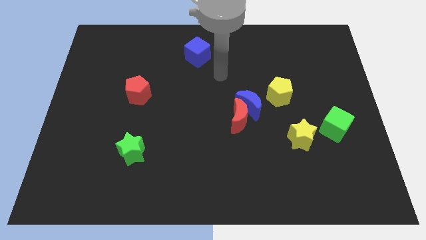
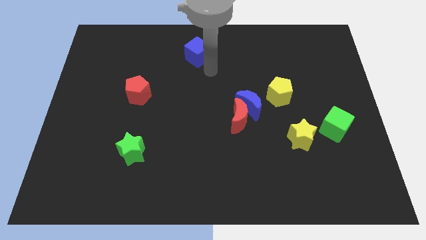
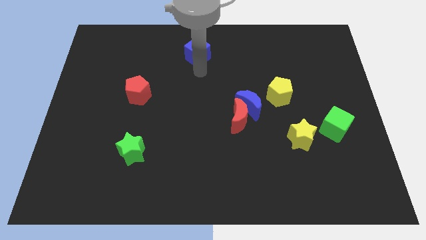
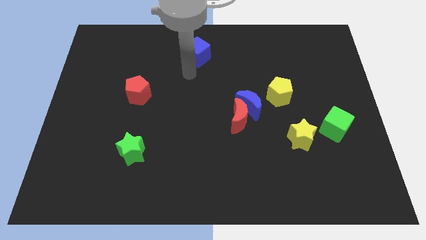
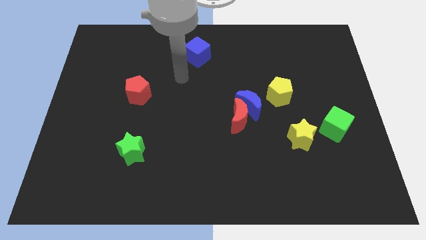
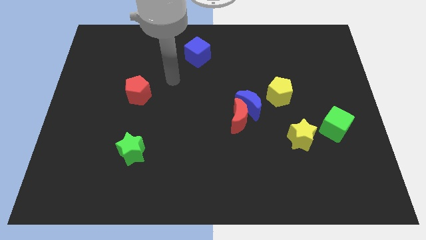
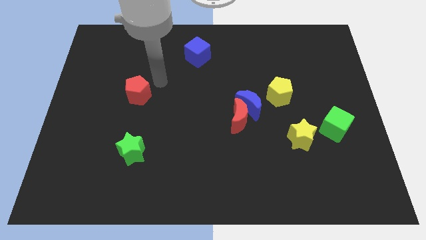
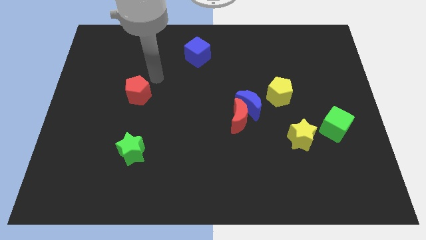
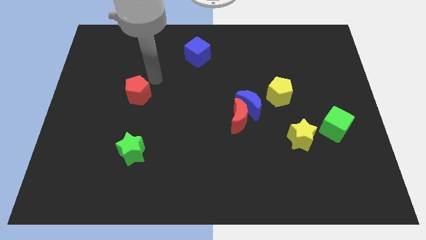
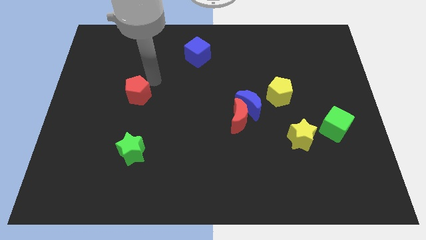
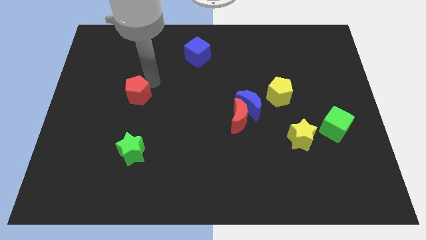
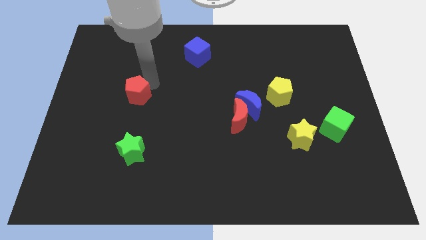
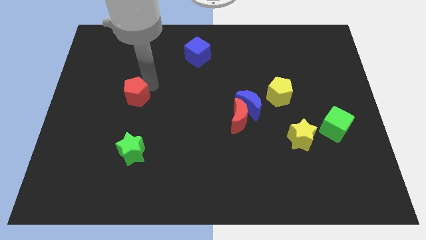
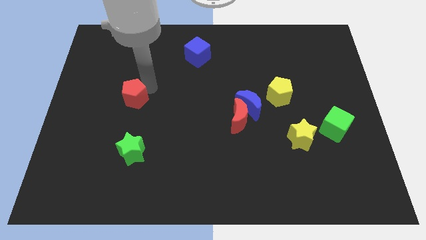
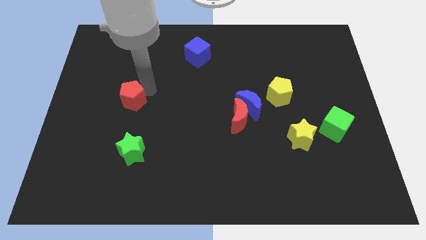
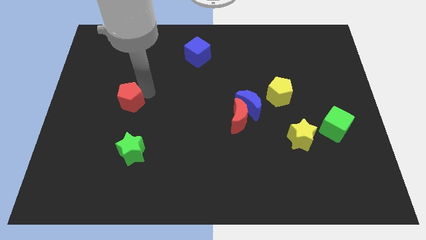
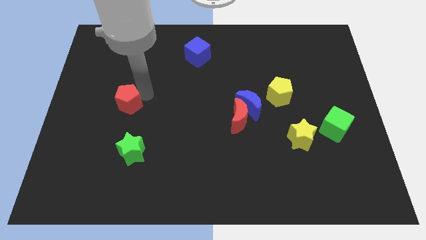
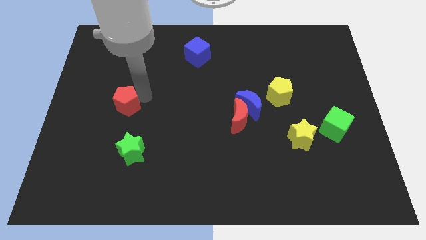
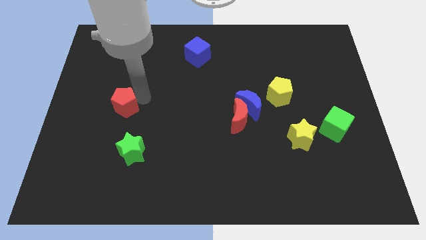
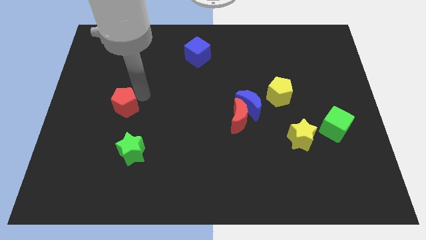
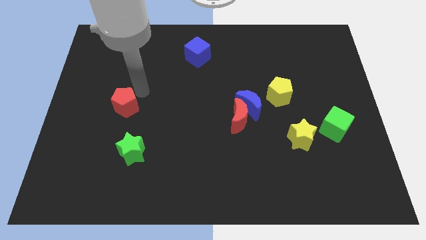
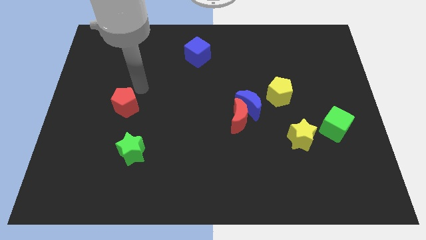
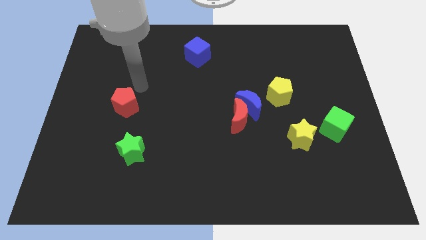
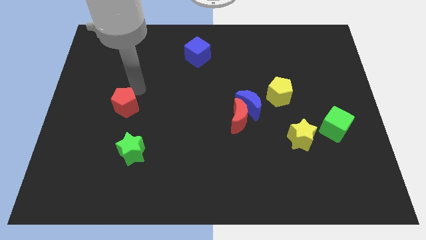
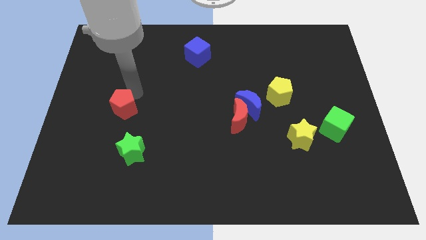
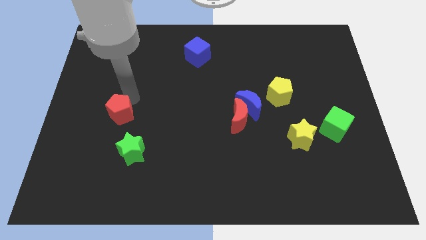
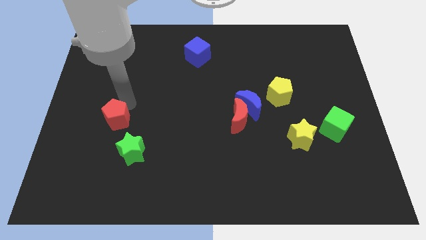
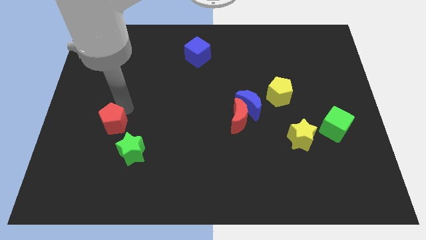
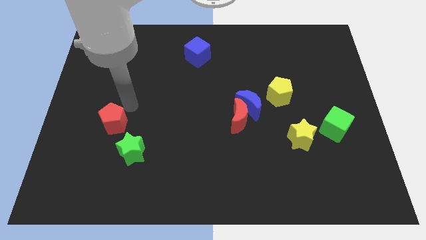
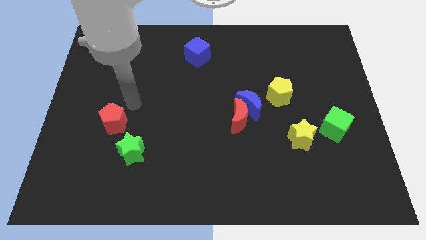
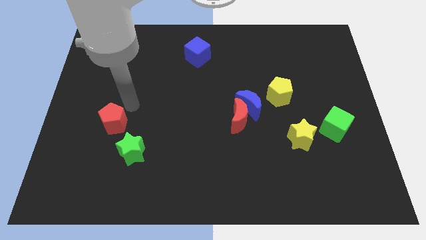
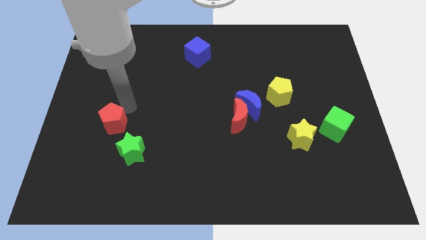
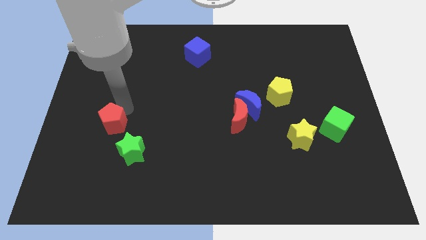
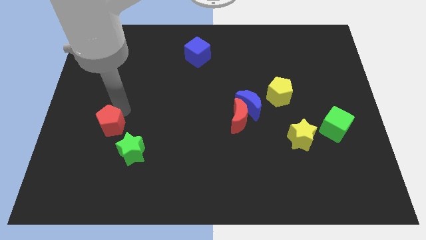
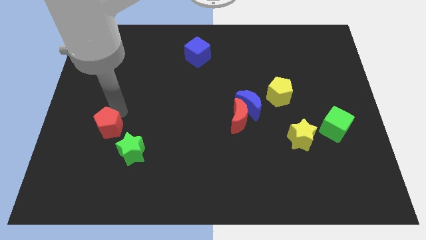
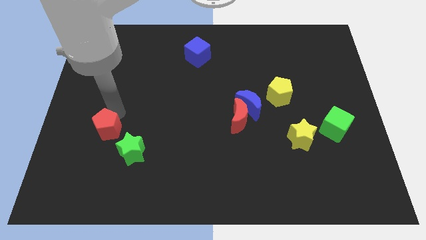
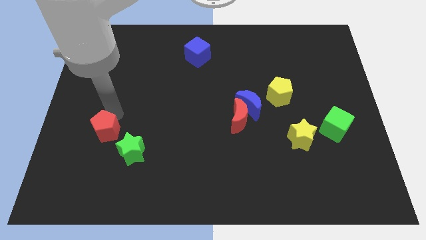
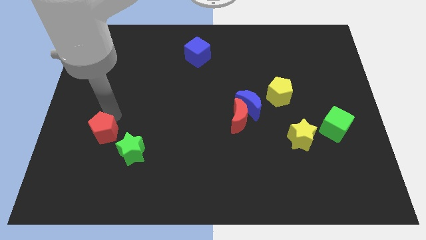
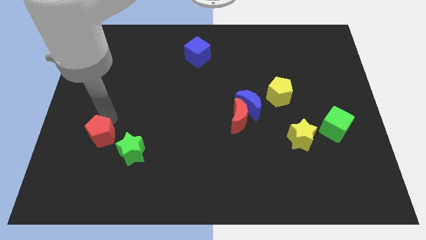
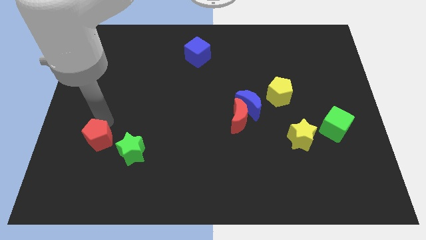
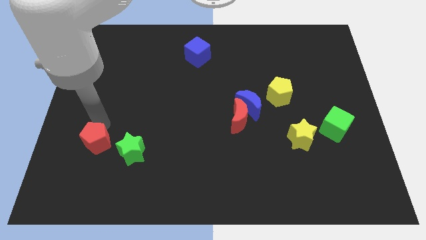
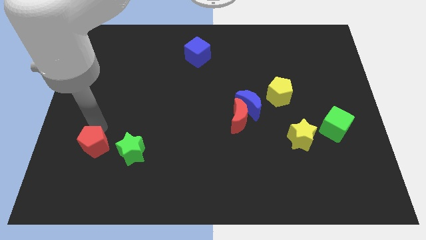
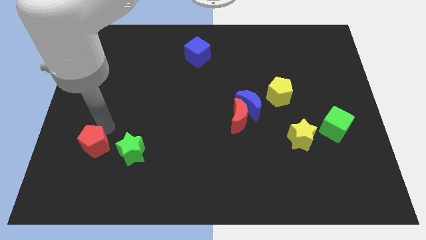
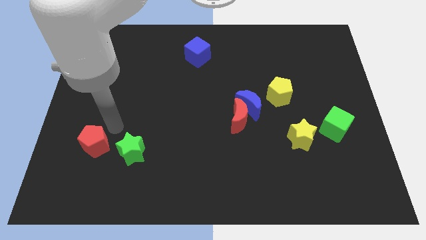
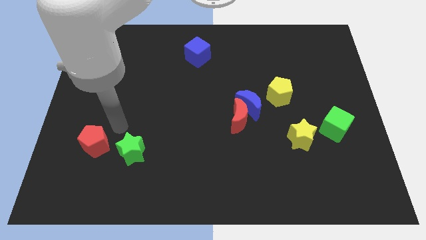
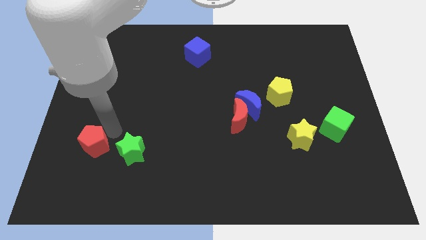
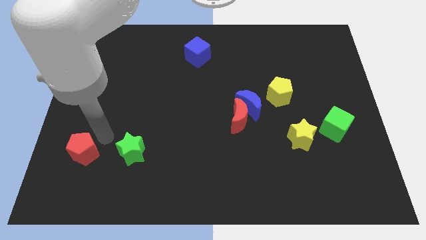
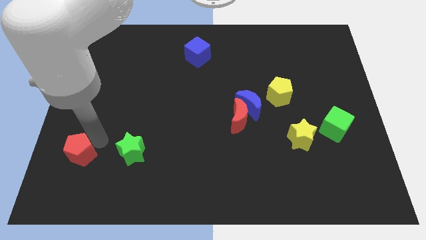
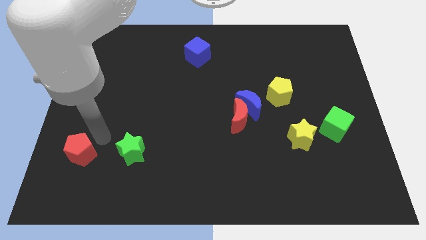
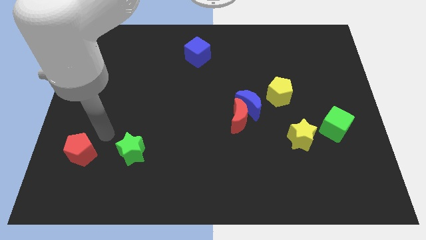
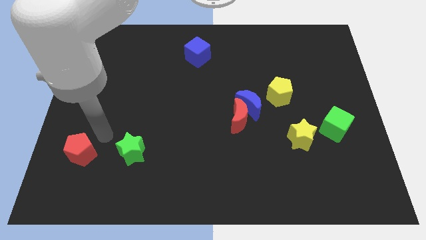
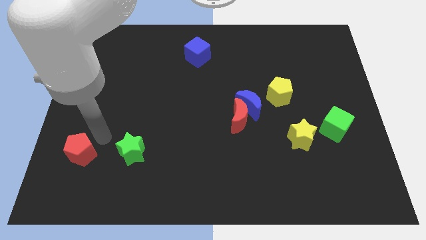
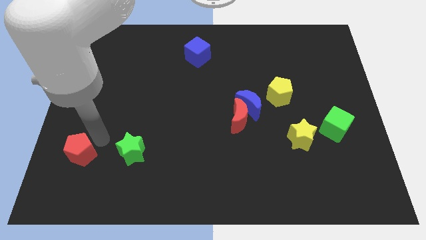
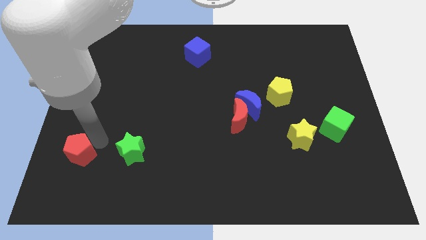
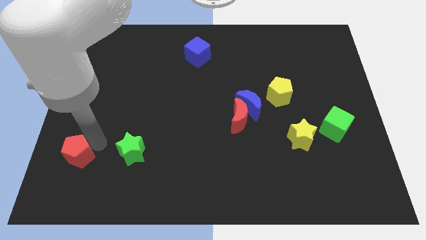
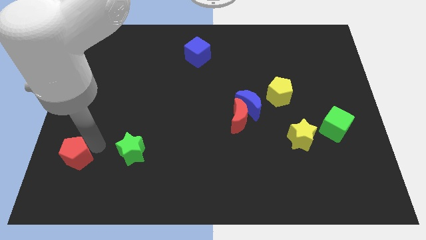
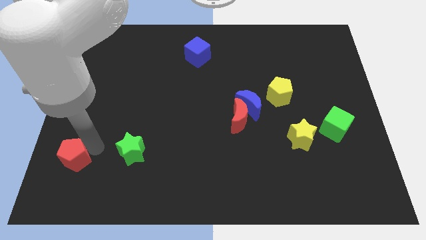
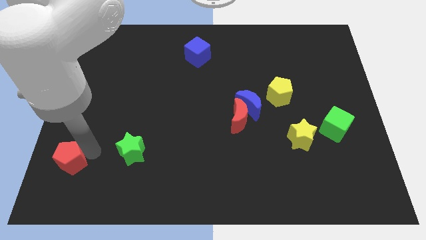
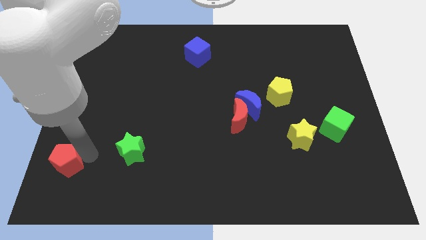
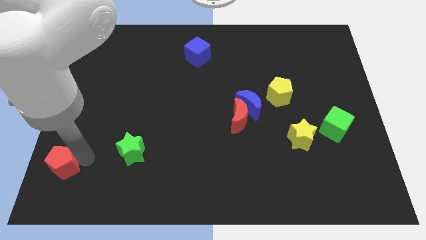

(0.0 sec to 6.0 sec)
move the red pentagon to the bottom left

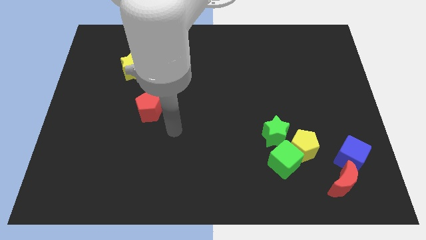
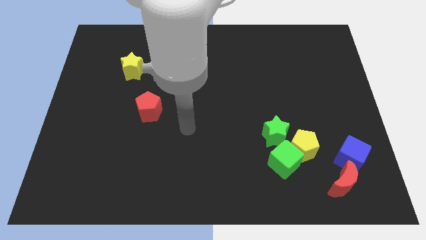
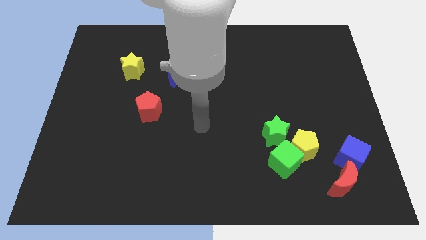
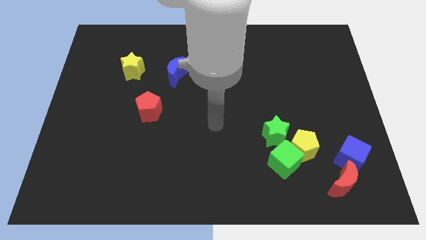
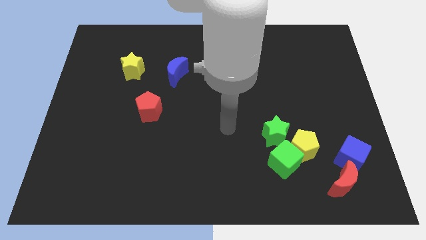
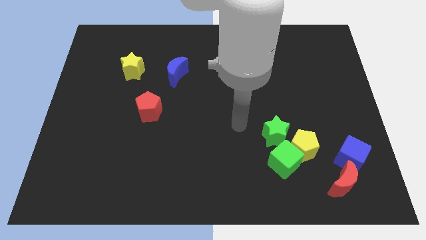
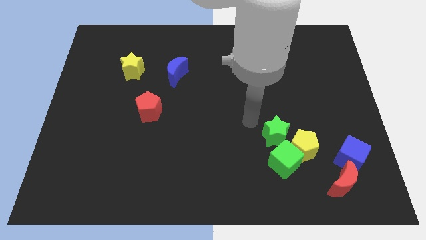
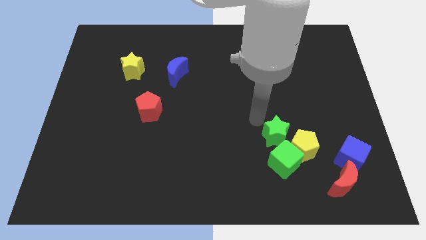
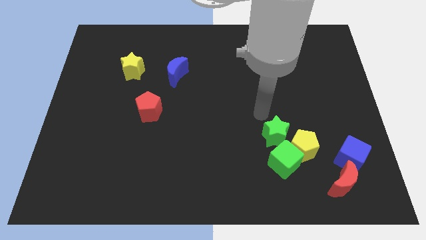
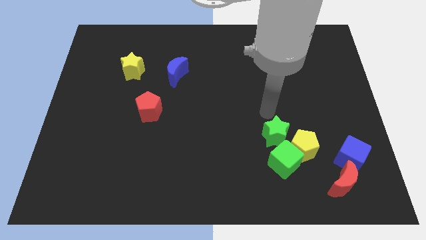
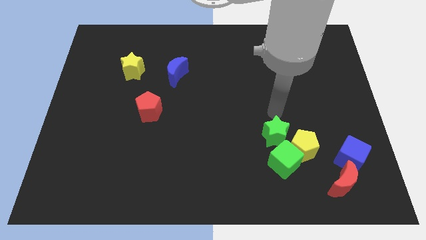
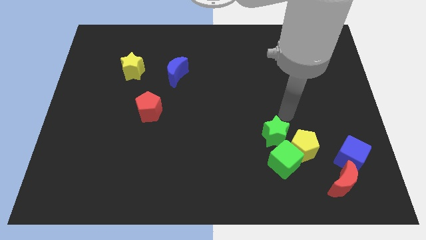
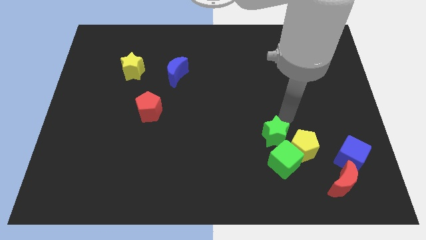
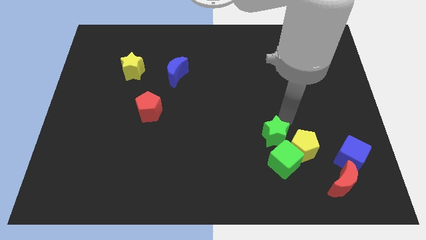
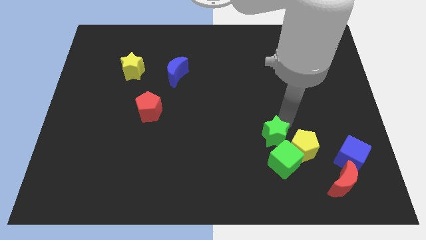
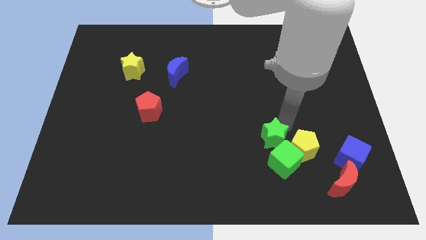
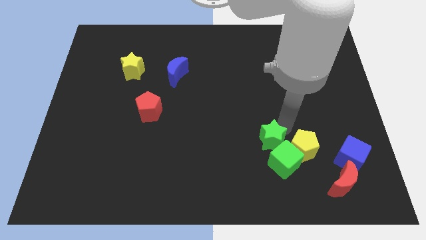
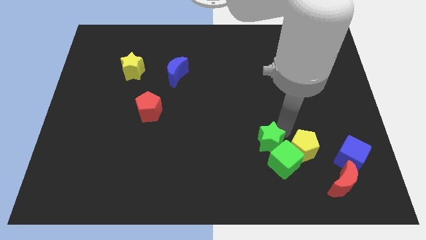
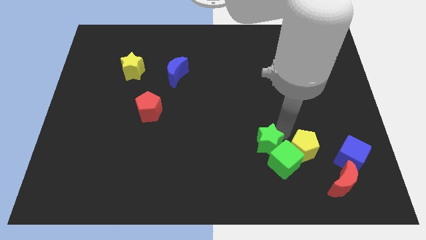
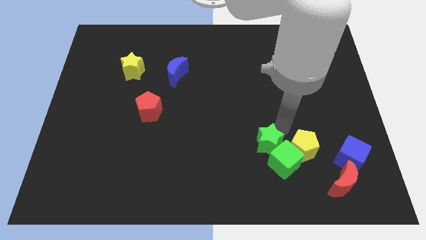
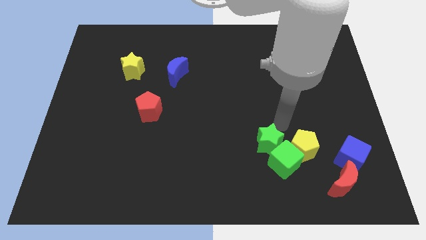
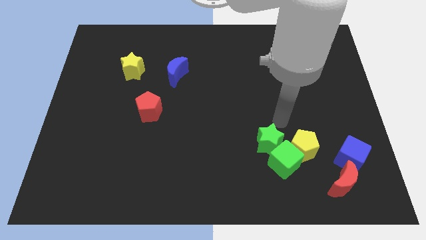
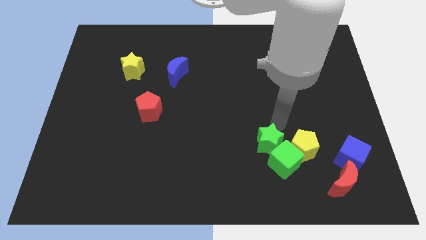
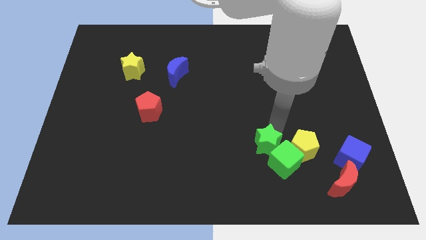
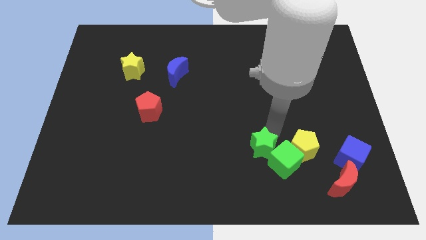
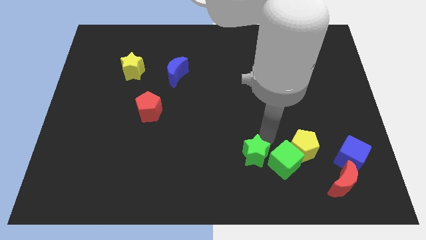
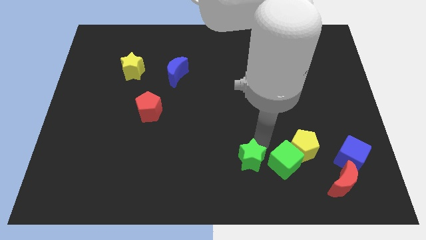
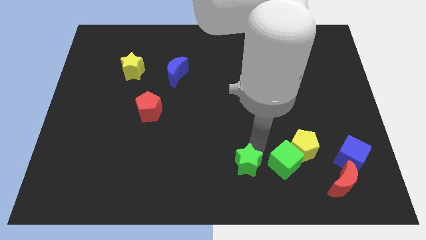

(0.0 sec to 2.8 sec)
move the green star to the bottom side
